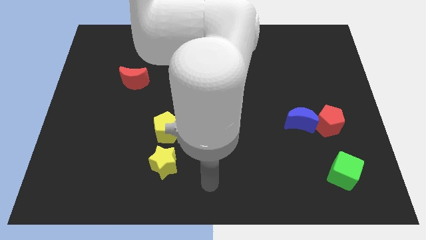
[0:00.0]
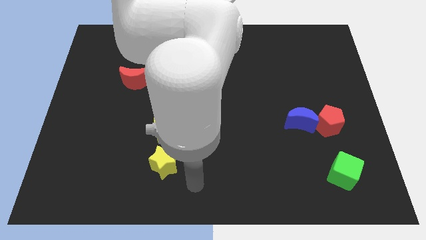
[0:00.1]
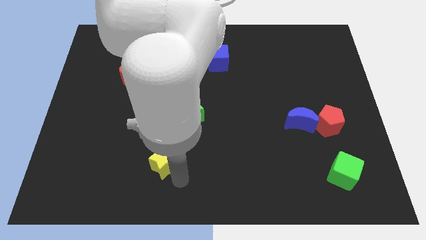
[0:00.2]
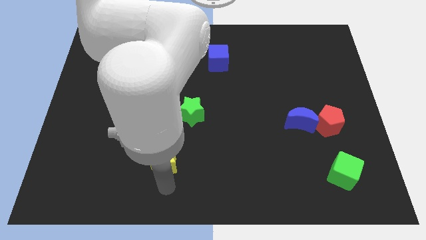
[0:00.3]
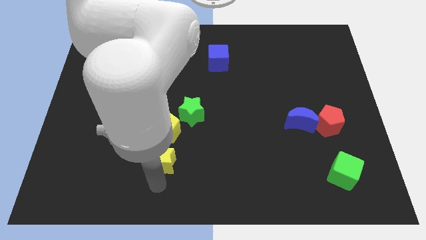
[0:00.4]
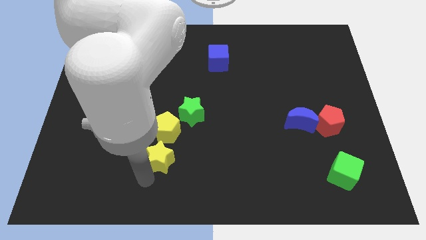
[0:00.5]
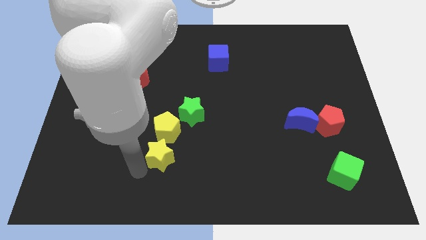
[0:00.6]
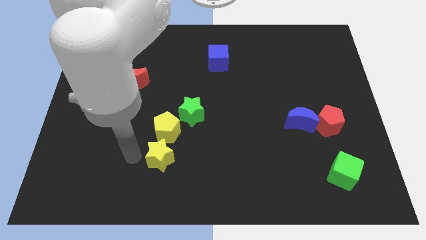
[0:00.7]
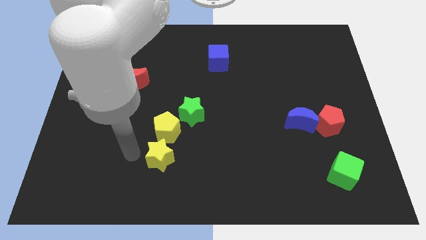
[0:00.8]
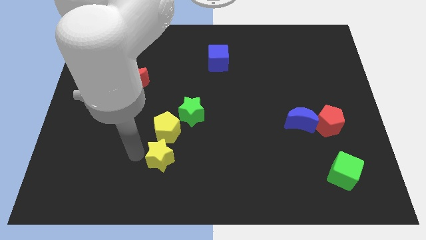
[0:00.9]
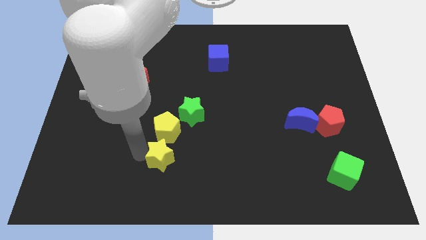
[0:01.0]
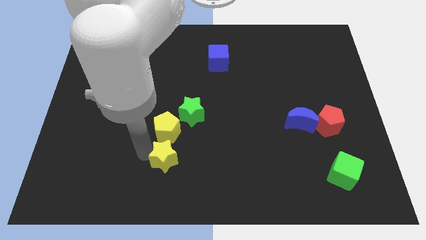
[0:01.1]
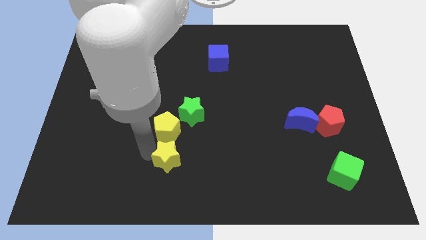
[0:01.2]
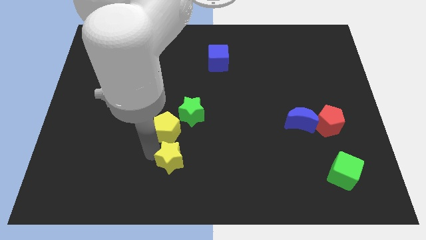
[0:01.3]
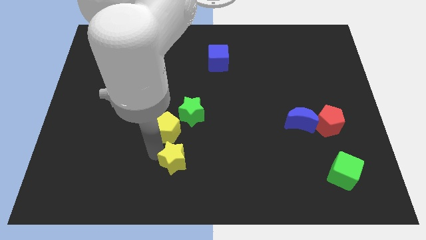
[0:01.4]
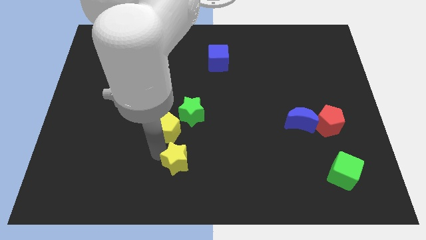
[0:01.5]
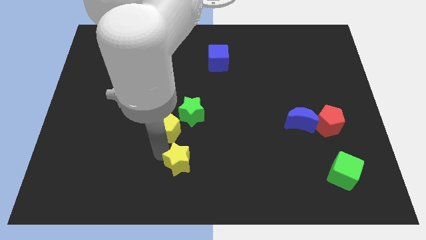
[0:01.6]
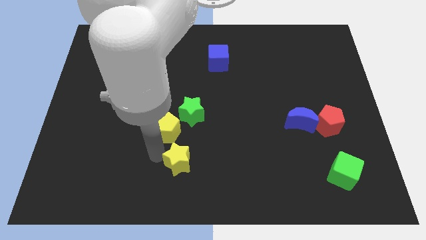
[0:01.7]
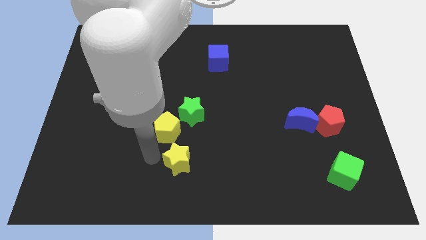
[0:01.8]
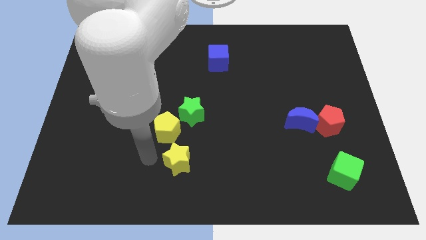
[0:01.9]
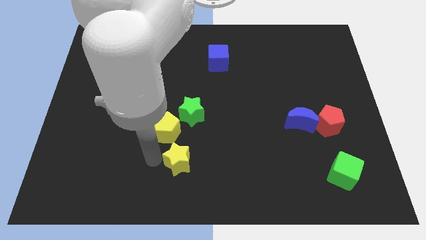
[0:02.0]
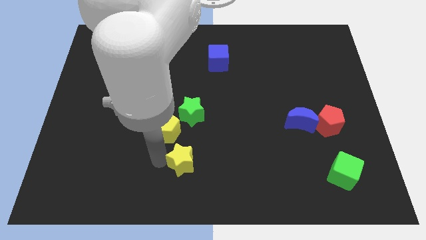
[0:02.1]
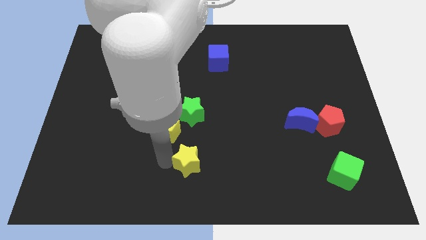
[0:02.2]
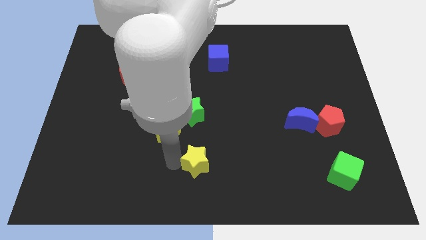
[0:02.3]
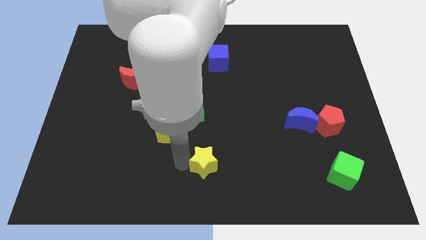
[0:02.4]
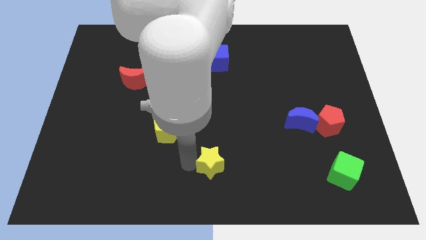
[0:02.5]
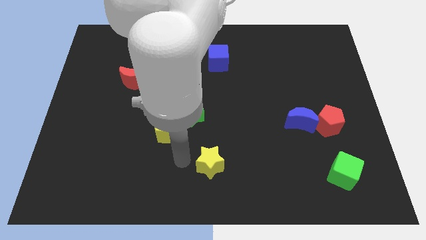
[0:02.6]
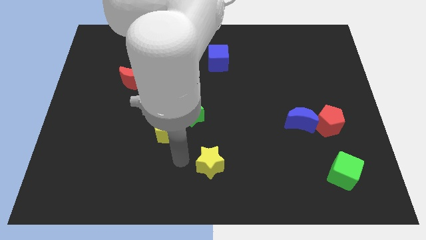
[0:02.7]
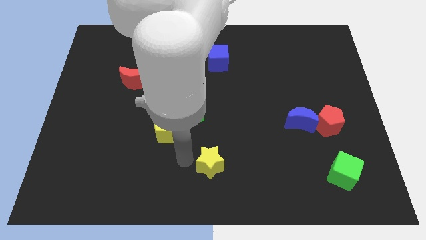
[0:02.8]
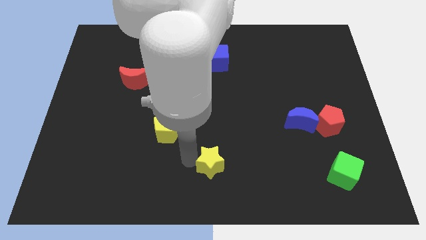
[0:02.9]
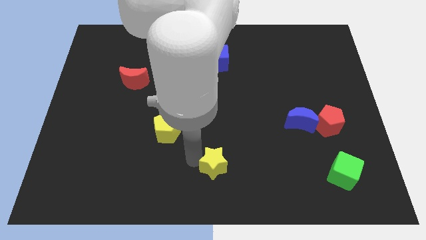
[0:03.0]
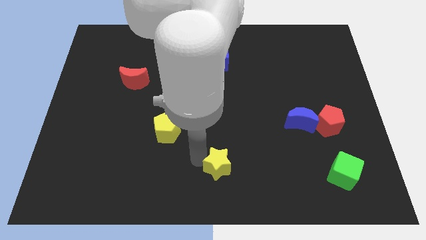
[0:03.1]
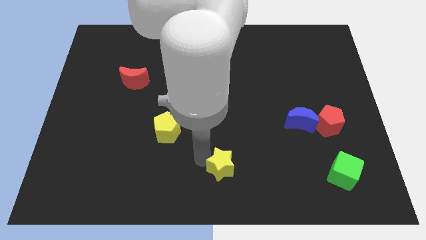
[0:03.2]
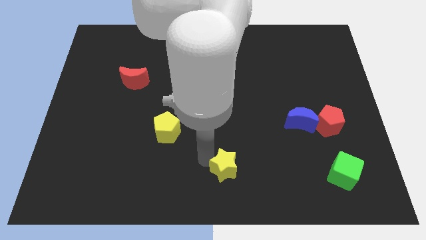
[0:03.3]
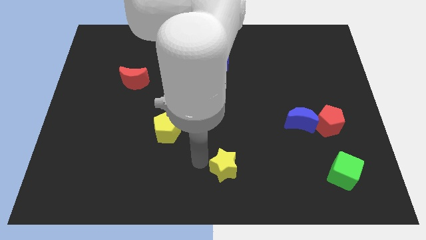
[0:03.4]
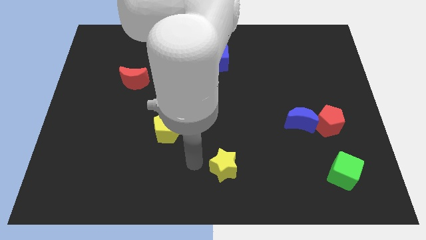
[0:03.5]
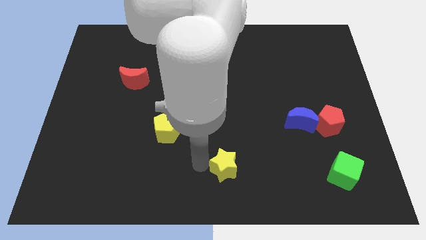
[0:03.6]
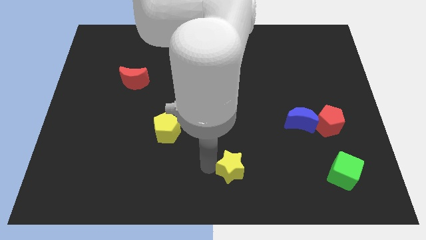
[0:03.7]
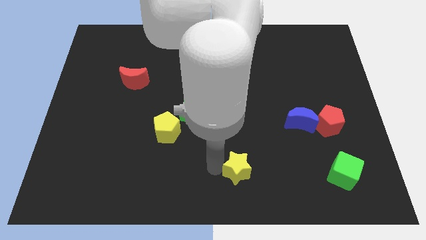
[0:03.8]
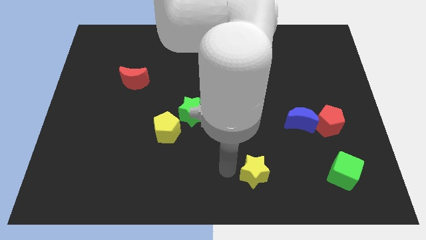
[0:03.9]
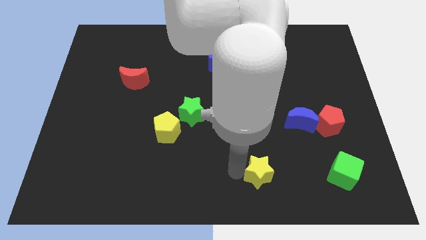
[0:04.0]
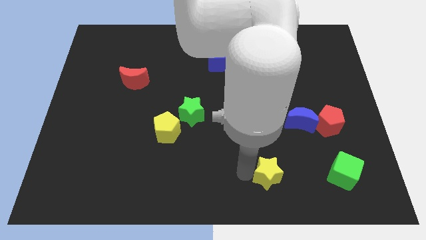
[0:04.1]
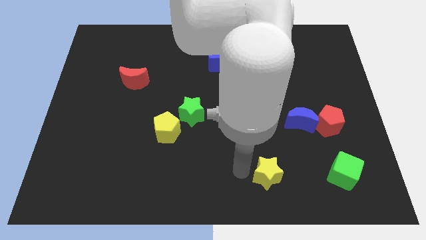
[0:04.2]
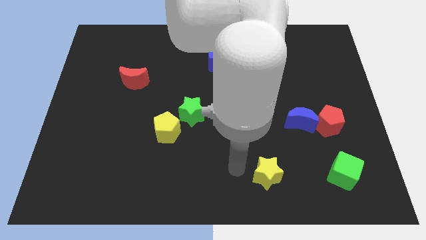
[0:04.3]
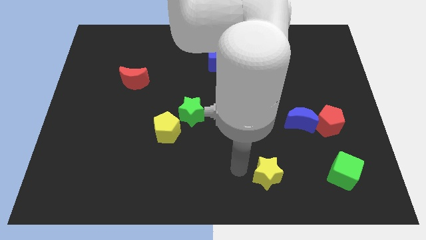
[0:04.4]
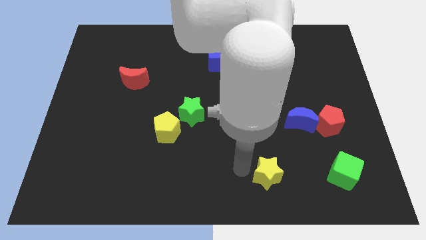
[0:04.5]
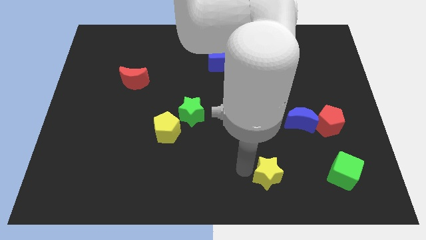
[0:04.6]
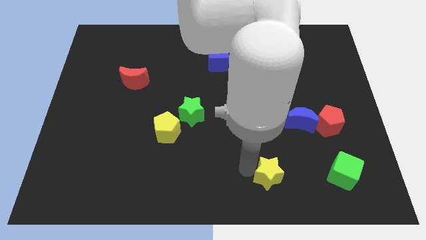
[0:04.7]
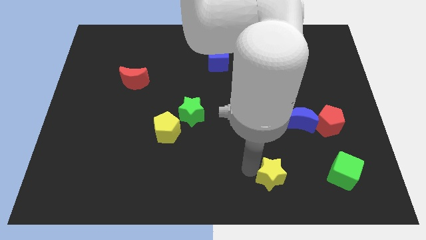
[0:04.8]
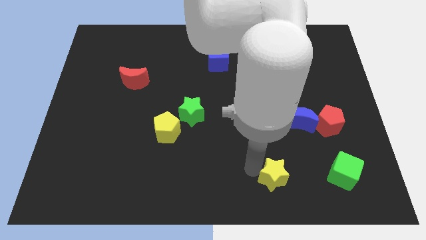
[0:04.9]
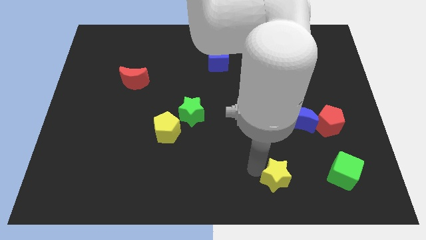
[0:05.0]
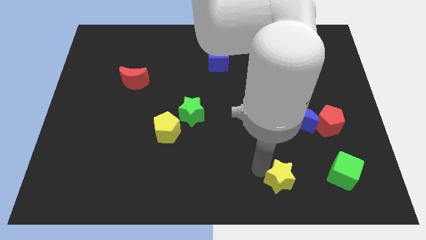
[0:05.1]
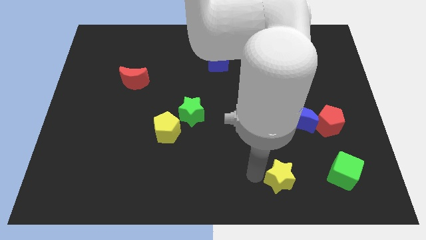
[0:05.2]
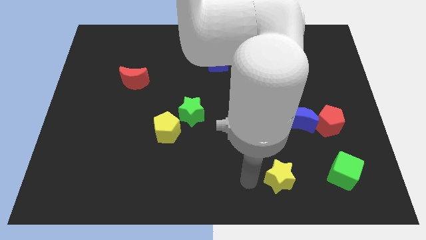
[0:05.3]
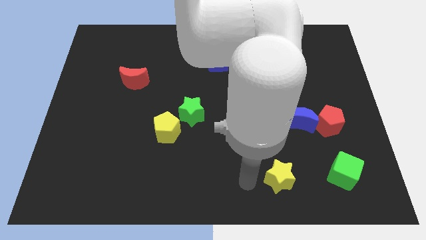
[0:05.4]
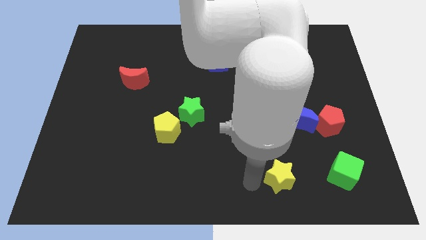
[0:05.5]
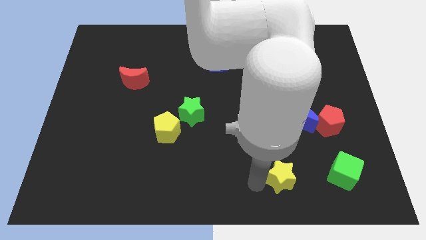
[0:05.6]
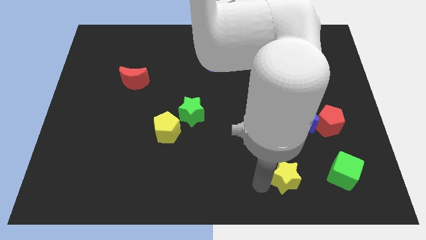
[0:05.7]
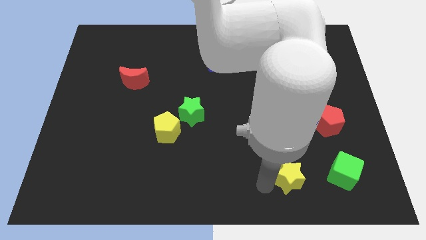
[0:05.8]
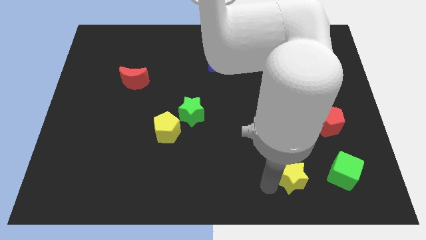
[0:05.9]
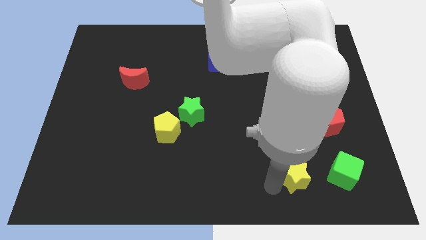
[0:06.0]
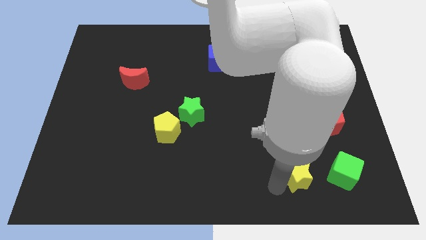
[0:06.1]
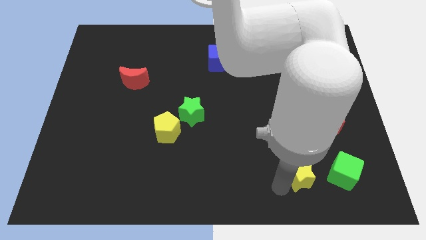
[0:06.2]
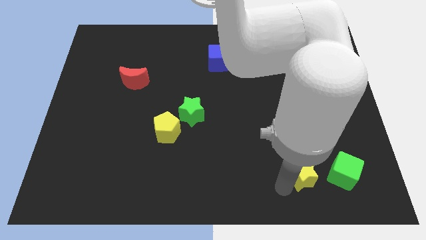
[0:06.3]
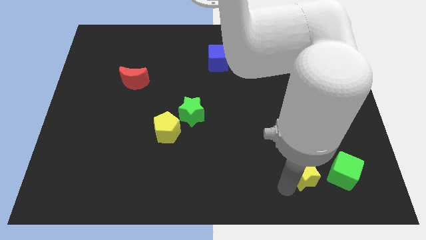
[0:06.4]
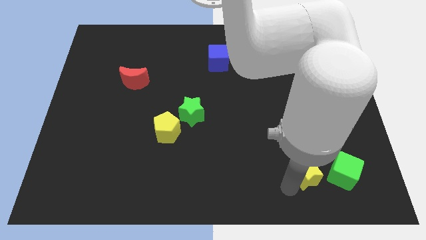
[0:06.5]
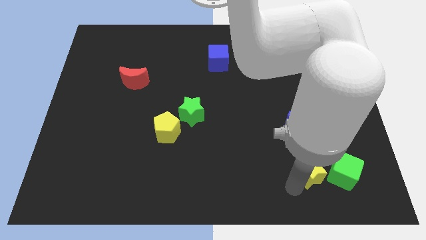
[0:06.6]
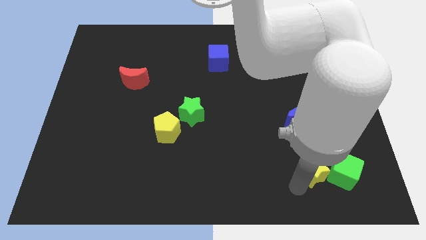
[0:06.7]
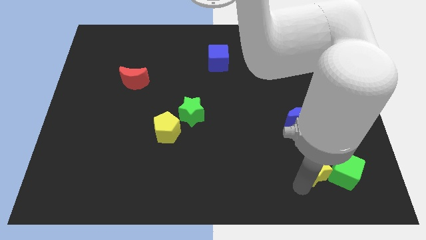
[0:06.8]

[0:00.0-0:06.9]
push the yellow star next to the green cube

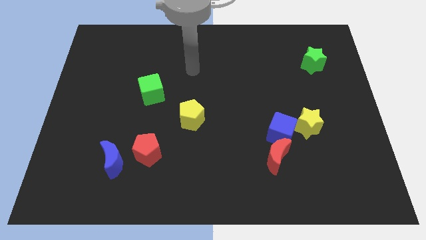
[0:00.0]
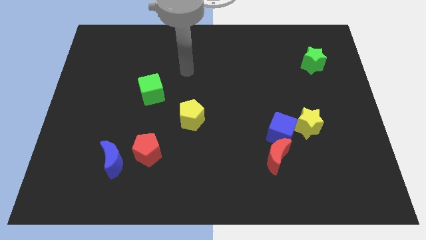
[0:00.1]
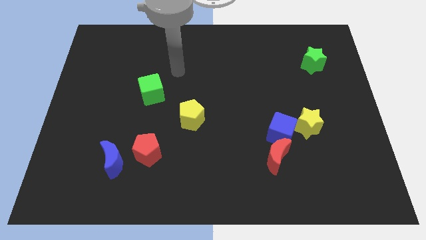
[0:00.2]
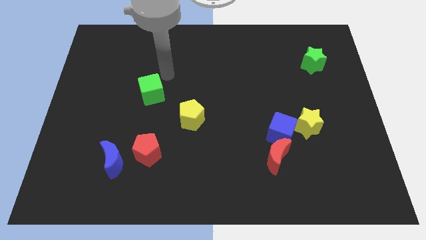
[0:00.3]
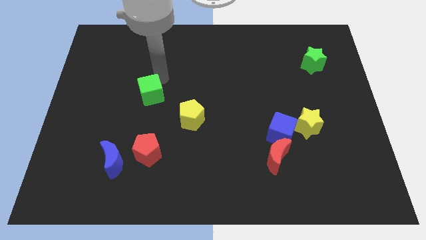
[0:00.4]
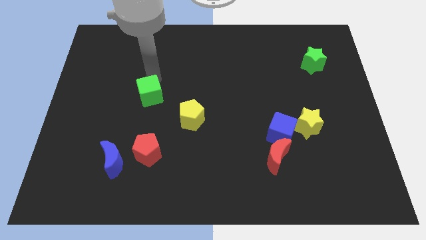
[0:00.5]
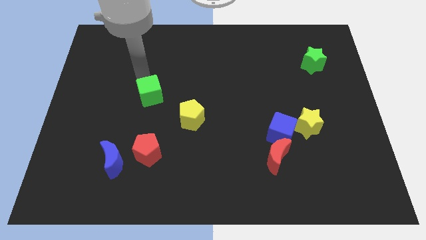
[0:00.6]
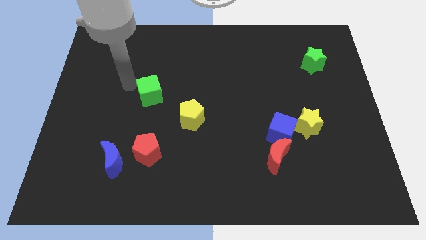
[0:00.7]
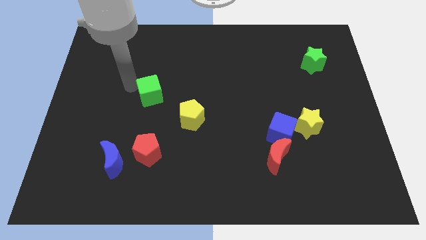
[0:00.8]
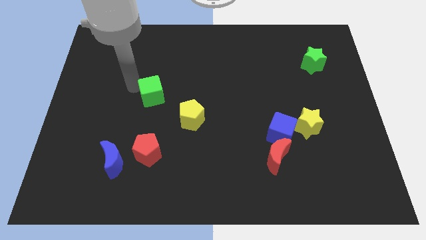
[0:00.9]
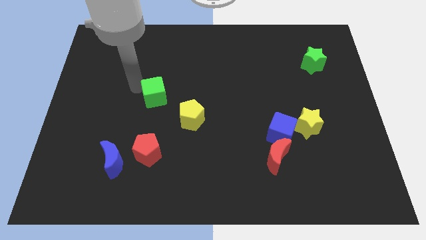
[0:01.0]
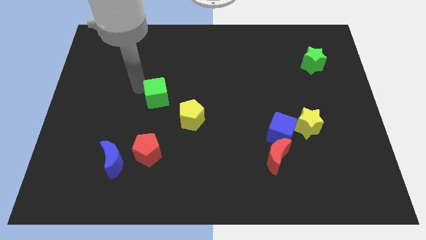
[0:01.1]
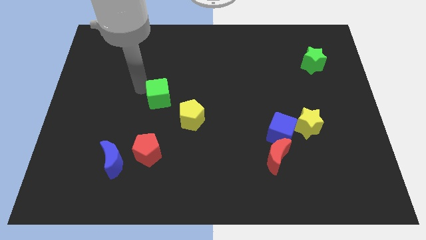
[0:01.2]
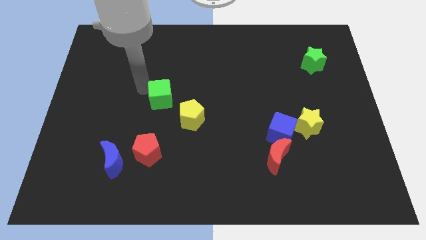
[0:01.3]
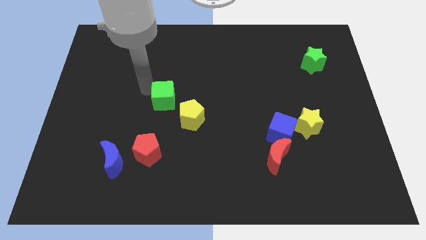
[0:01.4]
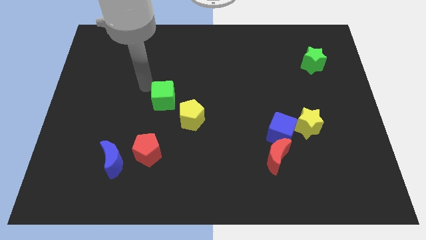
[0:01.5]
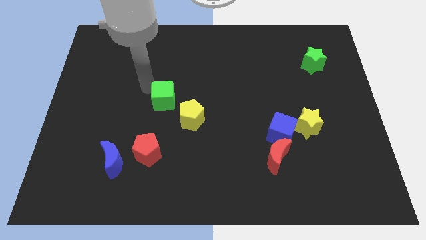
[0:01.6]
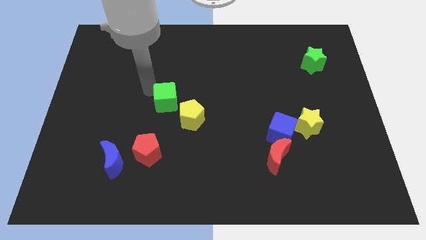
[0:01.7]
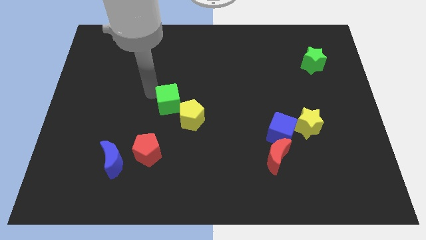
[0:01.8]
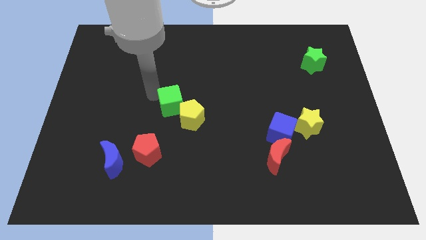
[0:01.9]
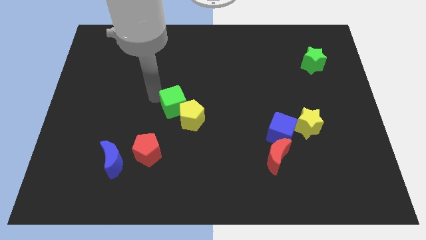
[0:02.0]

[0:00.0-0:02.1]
slide the green cube to the yellow pentagon
